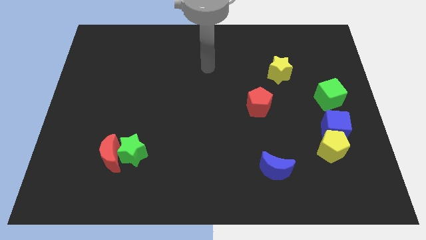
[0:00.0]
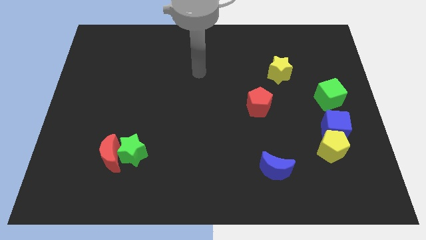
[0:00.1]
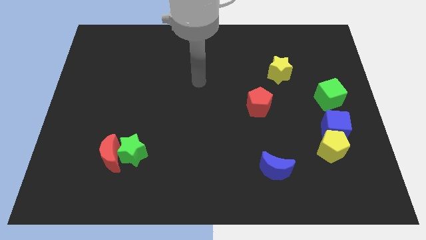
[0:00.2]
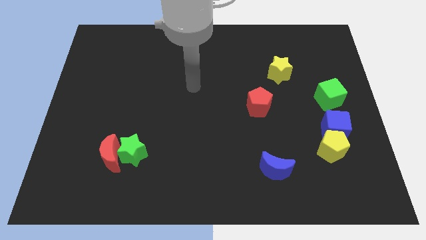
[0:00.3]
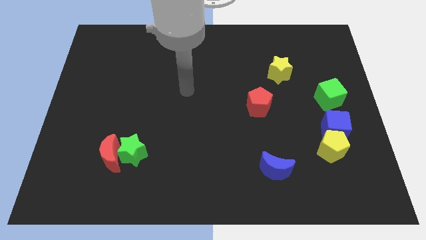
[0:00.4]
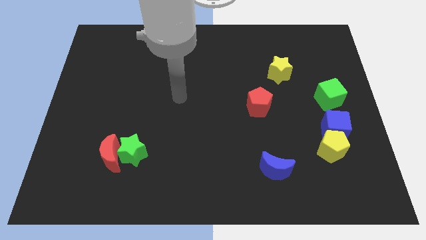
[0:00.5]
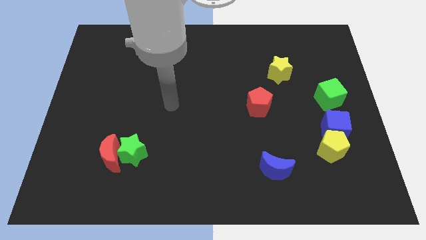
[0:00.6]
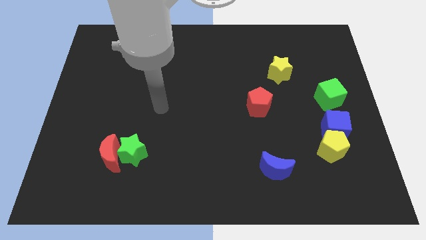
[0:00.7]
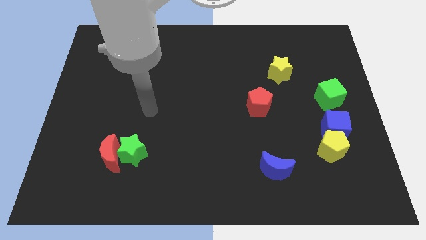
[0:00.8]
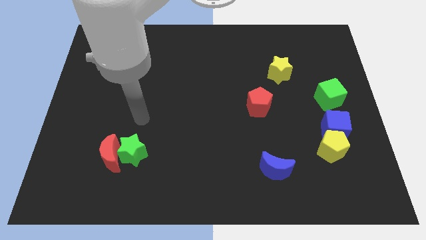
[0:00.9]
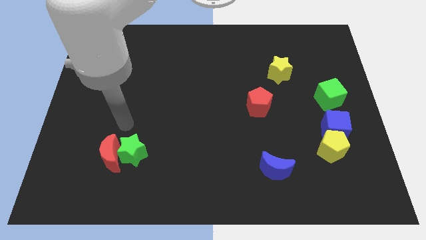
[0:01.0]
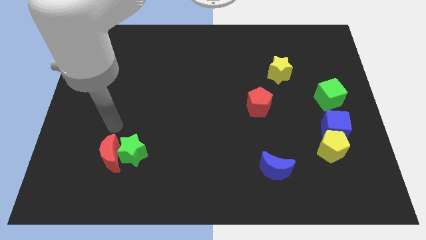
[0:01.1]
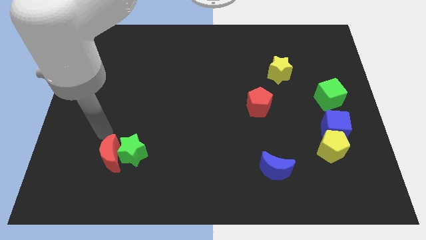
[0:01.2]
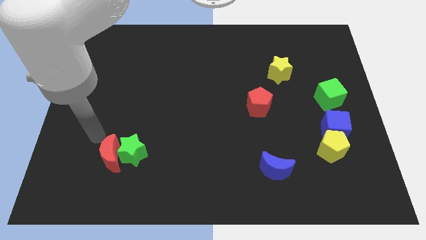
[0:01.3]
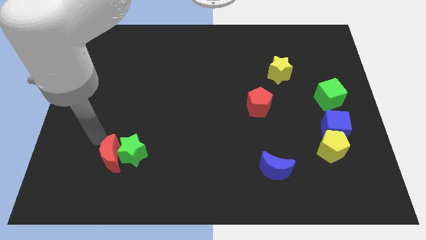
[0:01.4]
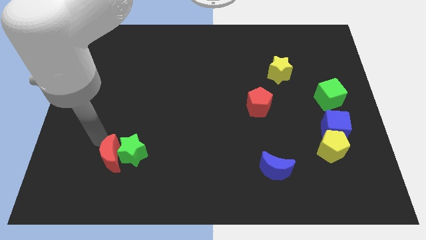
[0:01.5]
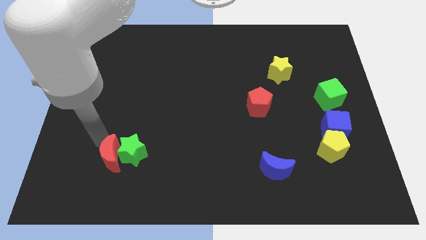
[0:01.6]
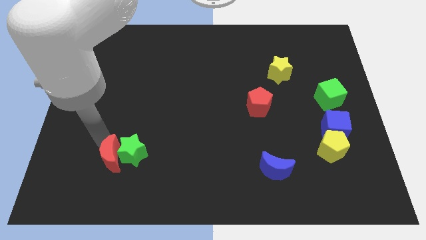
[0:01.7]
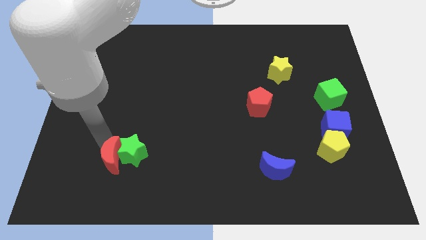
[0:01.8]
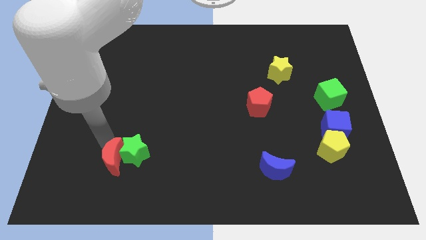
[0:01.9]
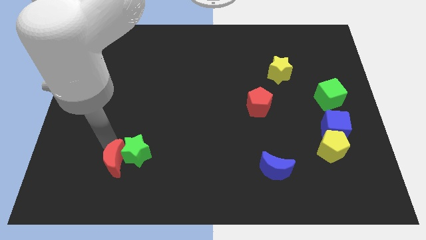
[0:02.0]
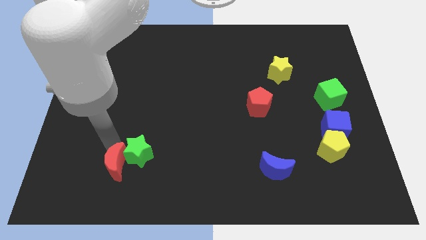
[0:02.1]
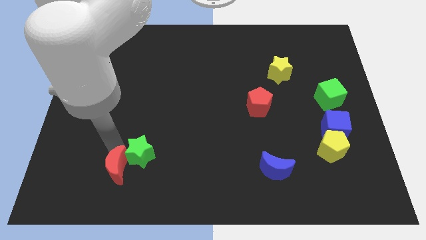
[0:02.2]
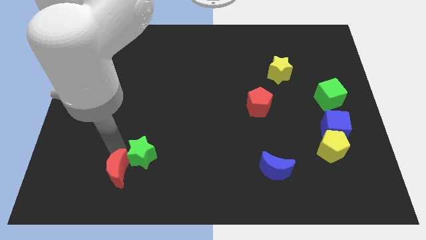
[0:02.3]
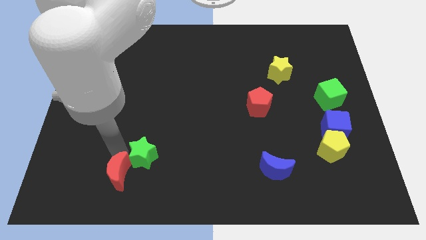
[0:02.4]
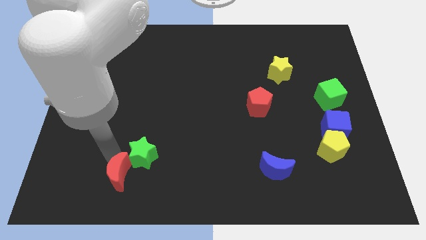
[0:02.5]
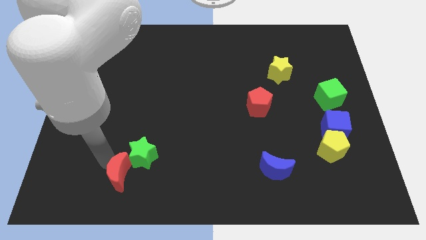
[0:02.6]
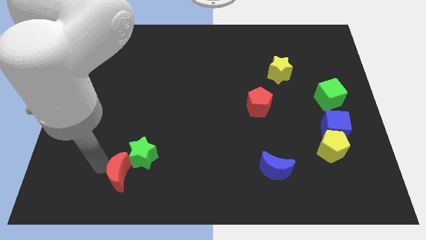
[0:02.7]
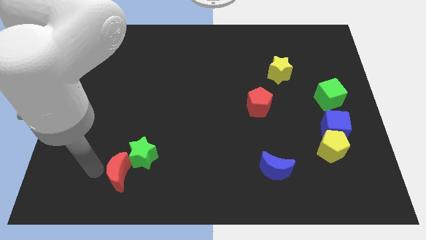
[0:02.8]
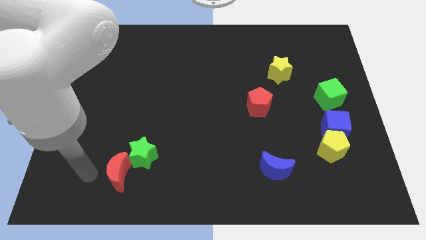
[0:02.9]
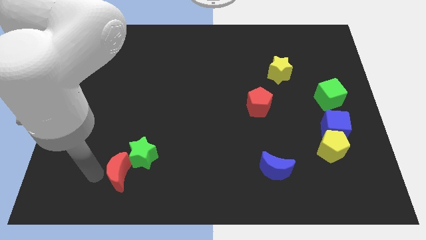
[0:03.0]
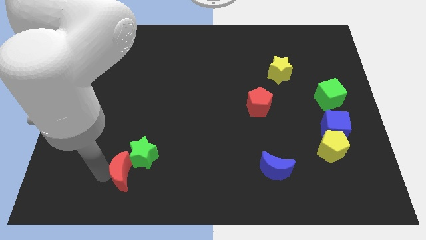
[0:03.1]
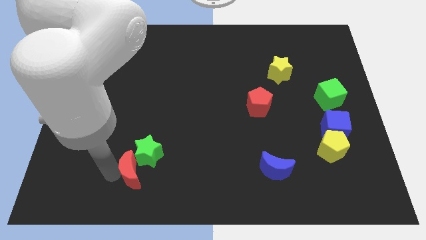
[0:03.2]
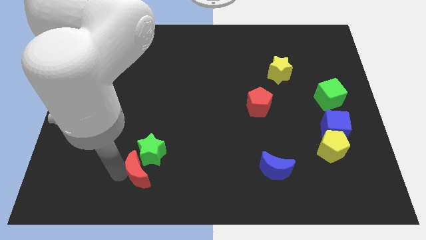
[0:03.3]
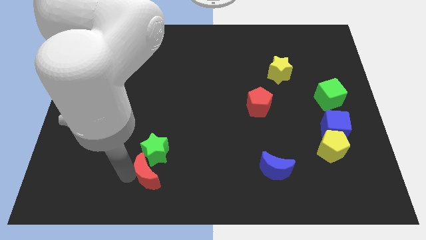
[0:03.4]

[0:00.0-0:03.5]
slide the red moon slightly right

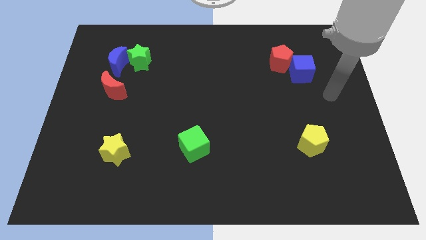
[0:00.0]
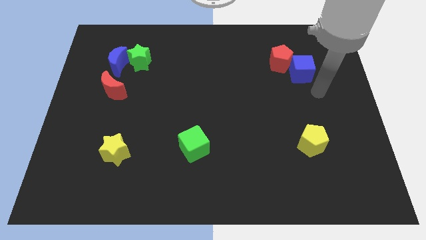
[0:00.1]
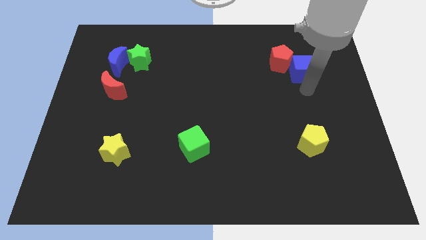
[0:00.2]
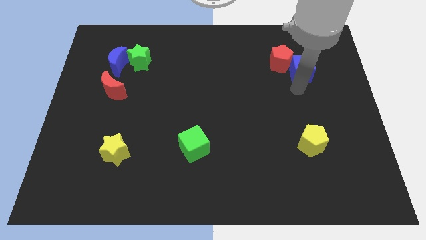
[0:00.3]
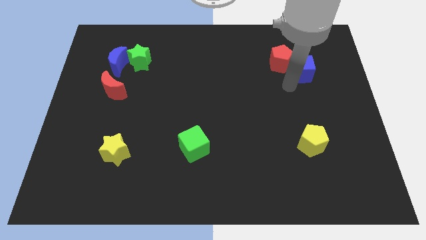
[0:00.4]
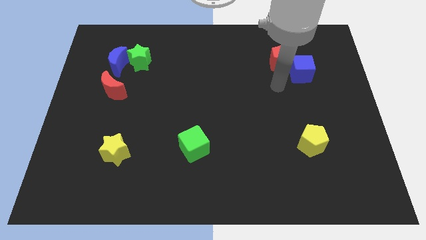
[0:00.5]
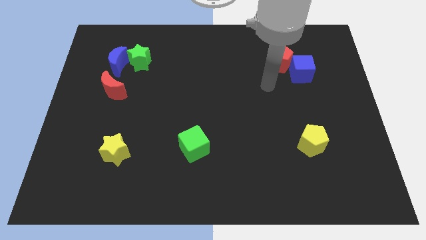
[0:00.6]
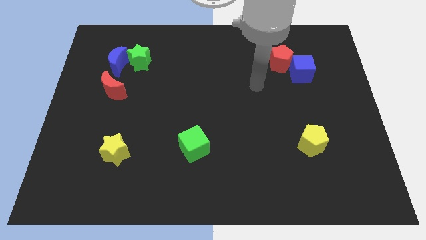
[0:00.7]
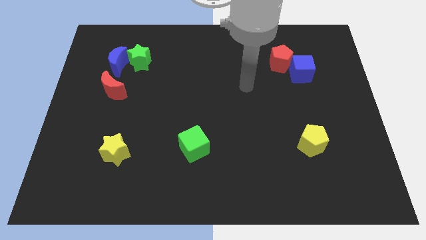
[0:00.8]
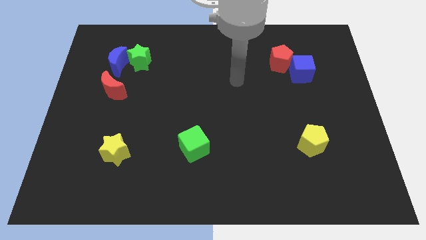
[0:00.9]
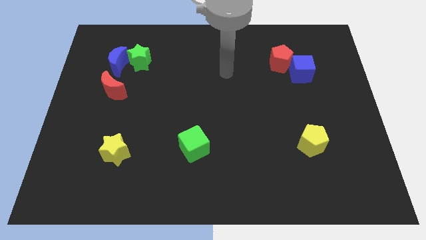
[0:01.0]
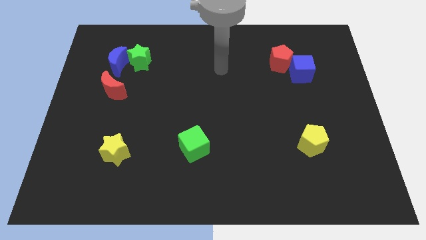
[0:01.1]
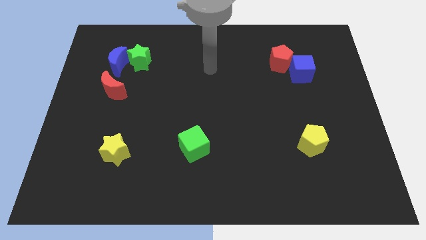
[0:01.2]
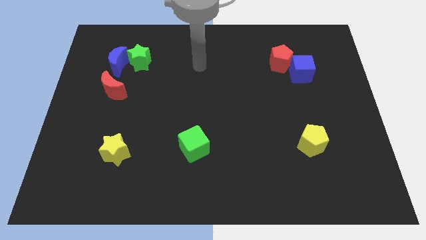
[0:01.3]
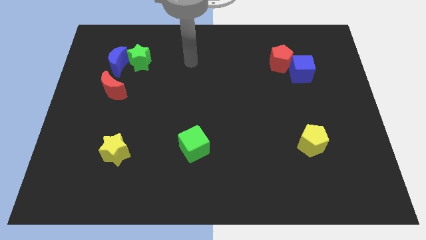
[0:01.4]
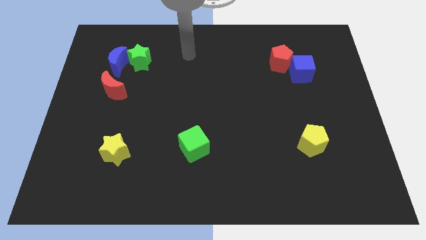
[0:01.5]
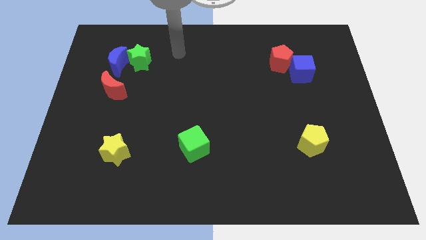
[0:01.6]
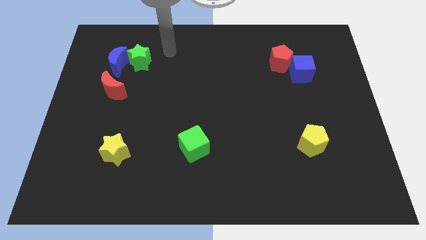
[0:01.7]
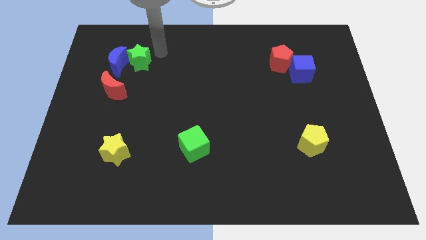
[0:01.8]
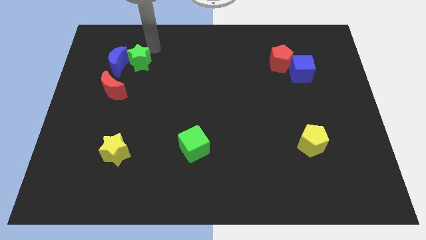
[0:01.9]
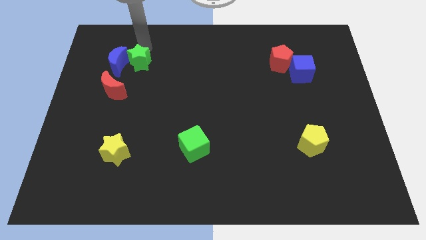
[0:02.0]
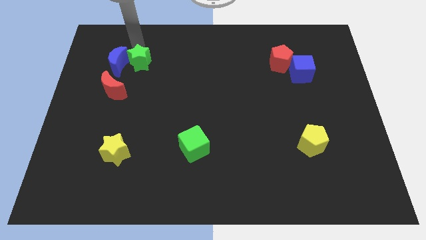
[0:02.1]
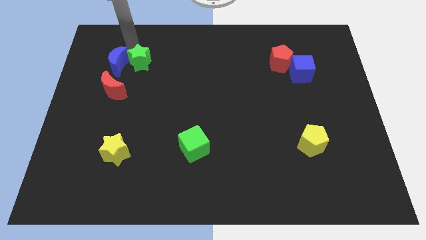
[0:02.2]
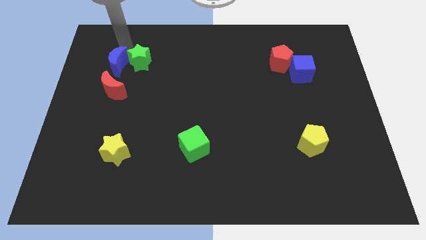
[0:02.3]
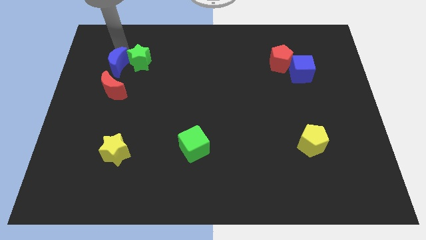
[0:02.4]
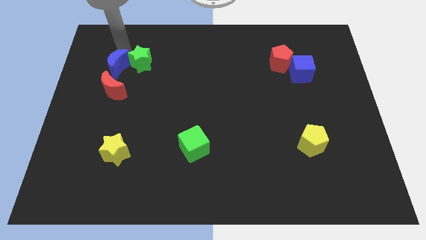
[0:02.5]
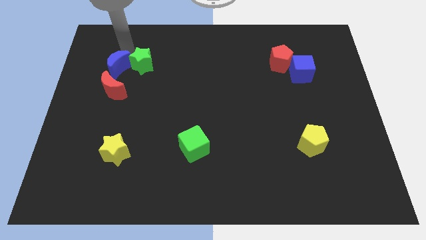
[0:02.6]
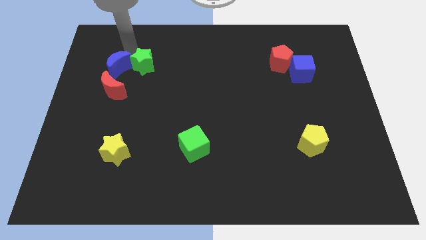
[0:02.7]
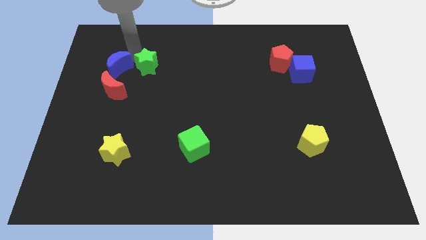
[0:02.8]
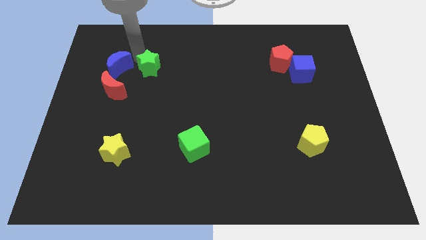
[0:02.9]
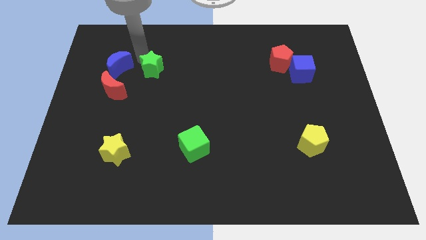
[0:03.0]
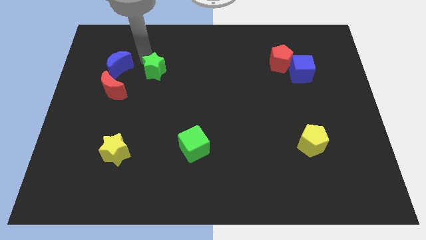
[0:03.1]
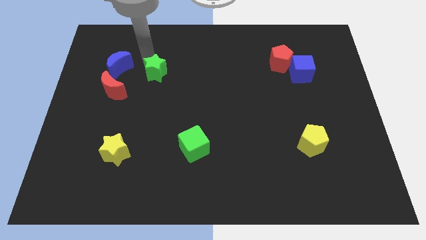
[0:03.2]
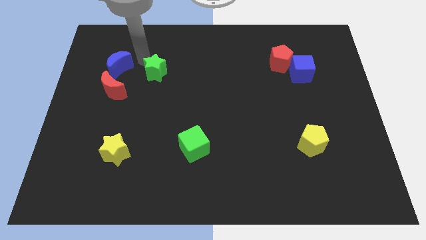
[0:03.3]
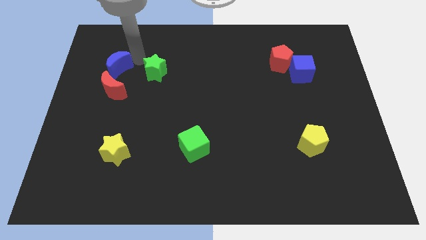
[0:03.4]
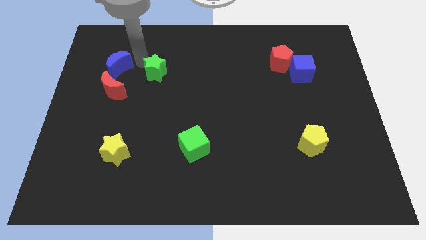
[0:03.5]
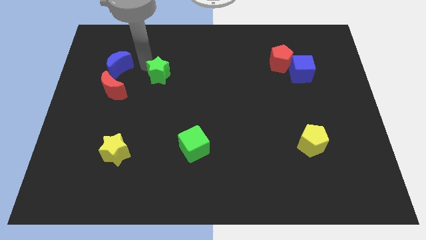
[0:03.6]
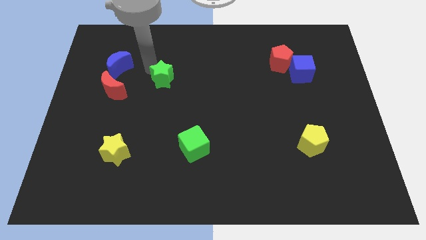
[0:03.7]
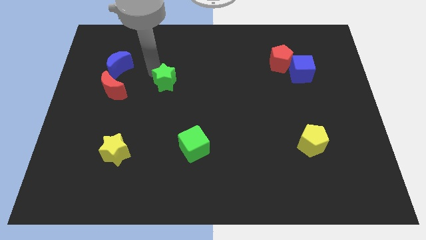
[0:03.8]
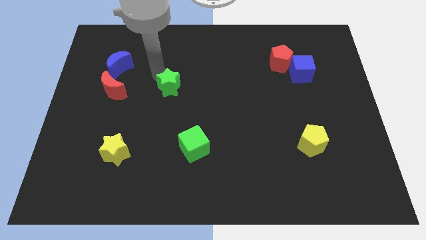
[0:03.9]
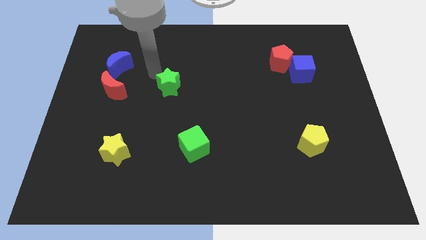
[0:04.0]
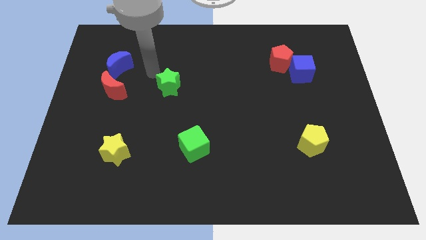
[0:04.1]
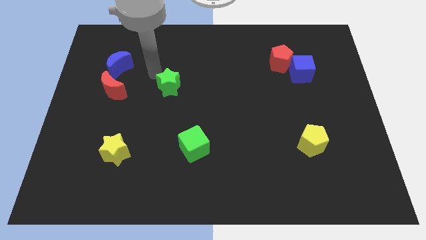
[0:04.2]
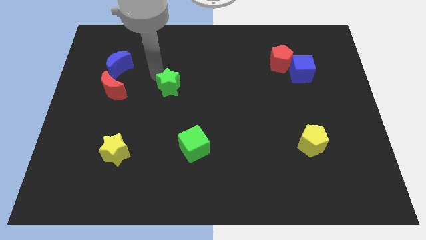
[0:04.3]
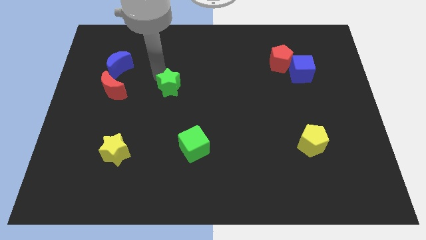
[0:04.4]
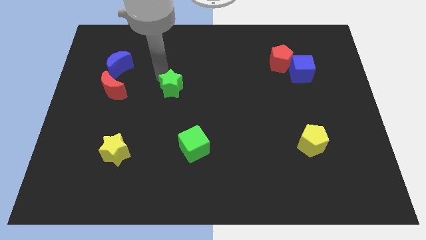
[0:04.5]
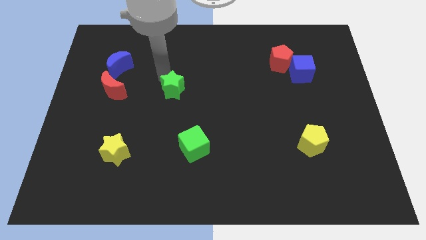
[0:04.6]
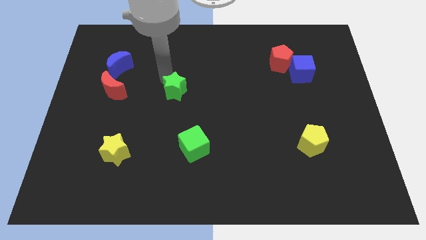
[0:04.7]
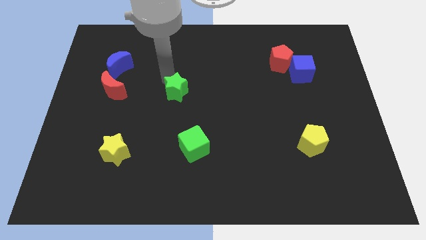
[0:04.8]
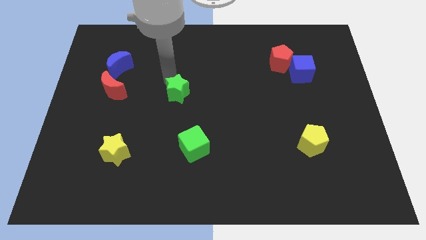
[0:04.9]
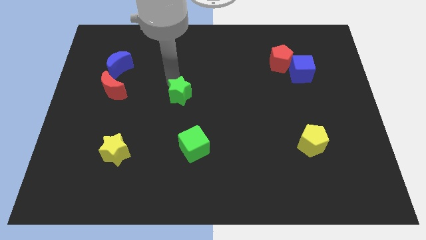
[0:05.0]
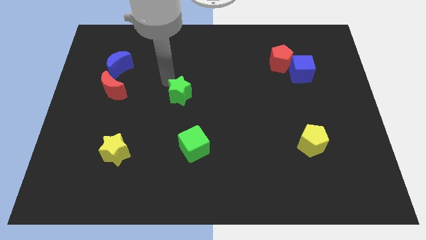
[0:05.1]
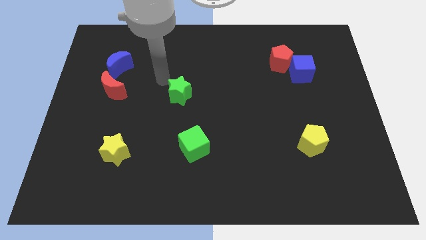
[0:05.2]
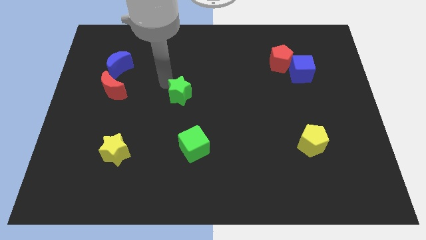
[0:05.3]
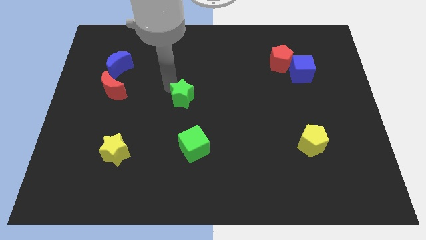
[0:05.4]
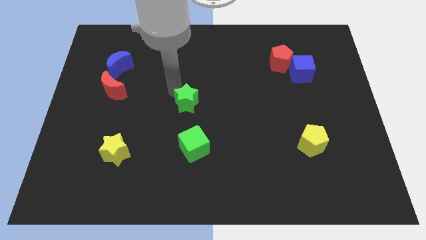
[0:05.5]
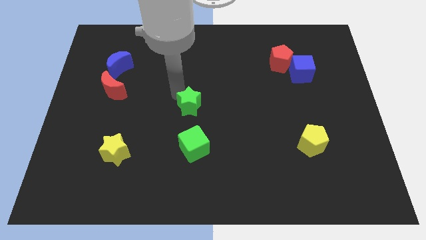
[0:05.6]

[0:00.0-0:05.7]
push the green star downwards and then right
